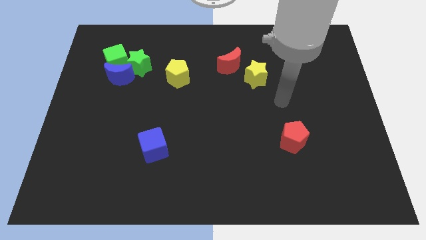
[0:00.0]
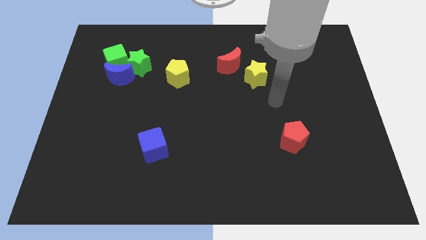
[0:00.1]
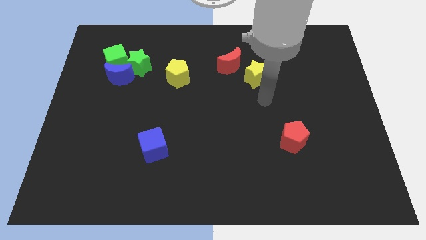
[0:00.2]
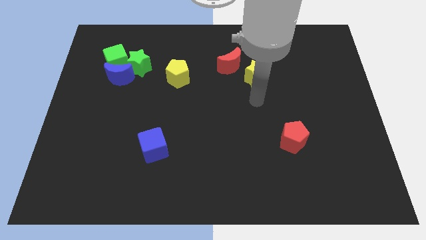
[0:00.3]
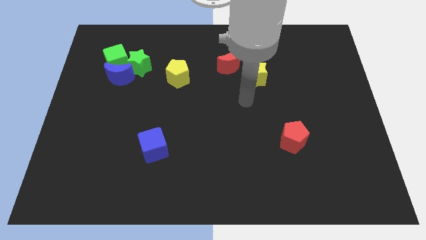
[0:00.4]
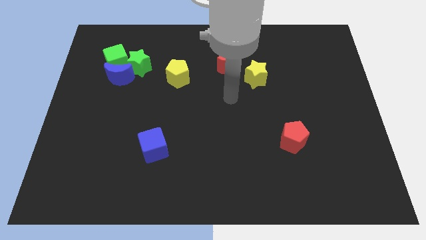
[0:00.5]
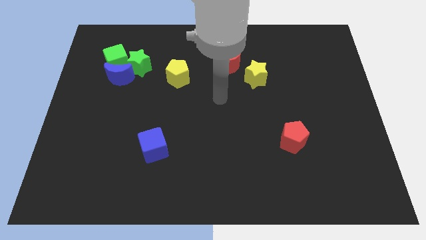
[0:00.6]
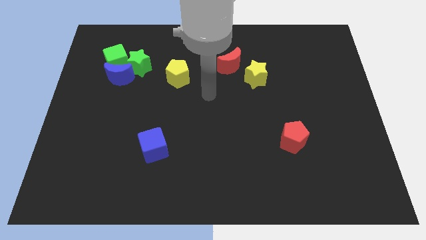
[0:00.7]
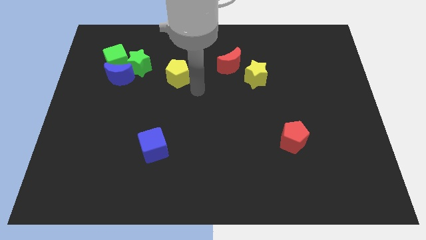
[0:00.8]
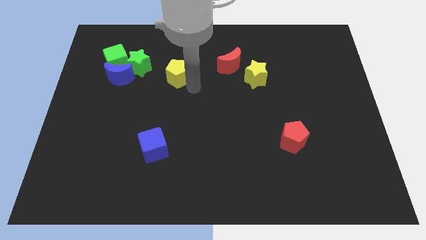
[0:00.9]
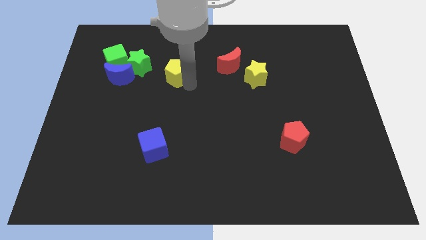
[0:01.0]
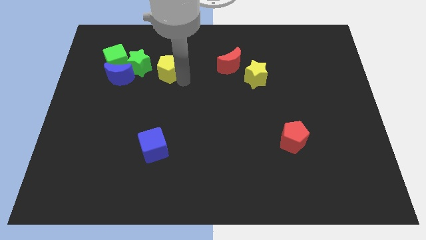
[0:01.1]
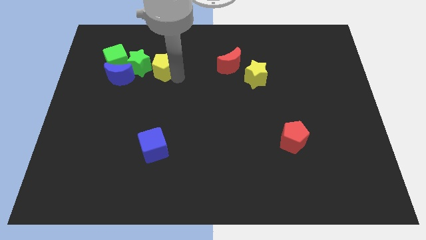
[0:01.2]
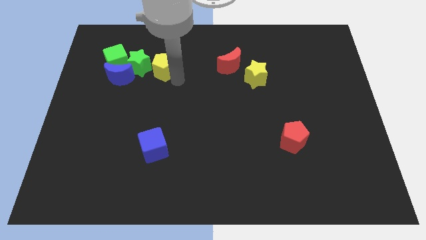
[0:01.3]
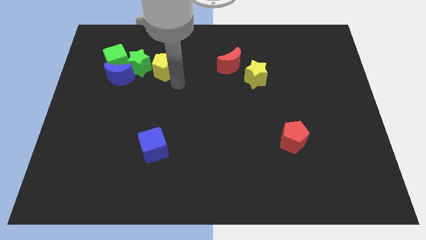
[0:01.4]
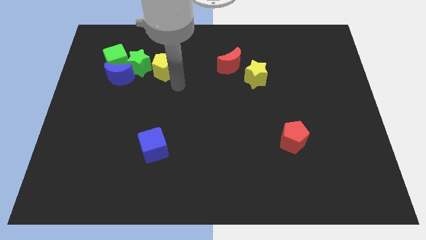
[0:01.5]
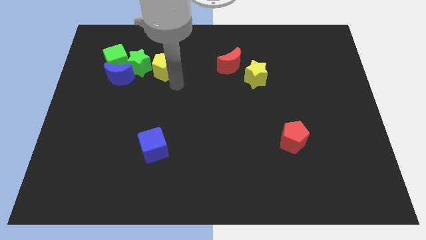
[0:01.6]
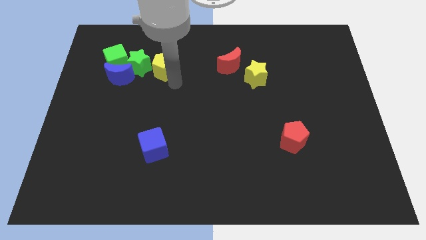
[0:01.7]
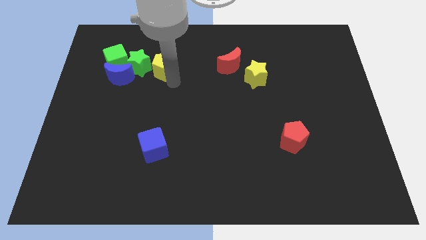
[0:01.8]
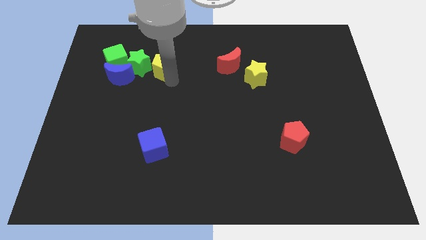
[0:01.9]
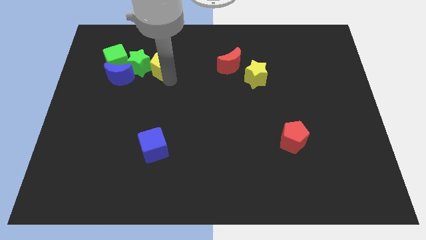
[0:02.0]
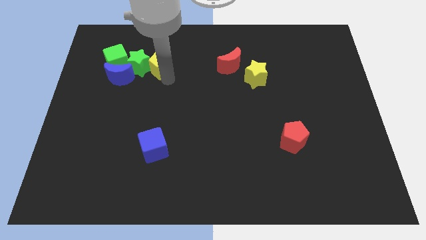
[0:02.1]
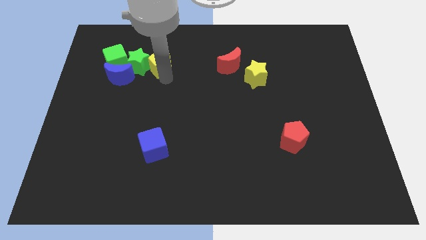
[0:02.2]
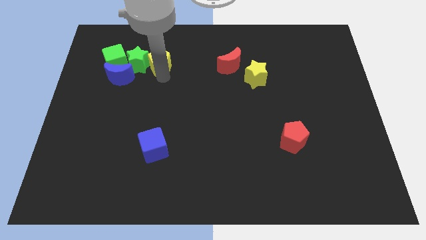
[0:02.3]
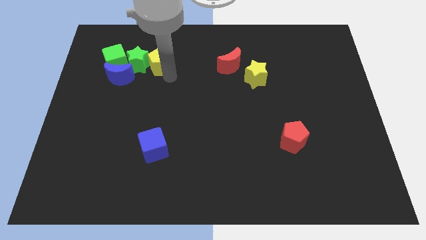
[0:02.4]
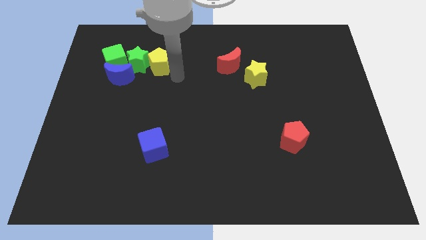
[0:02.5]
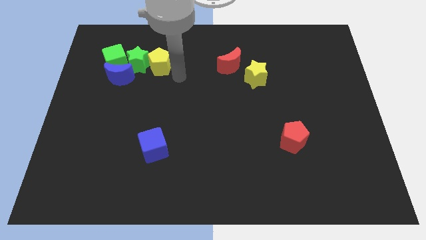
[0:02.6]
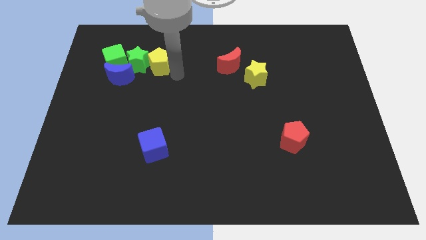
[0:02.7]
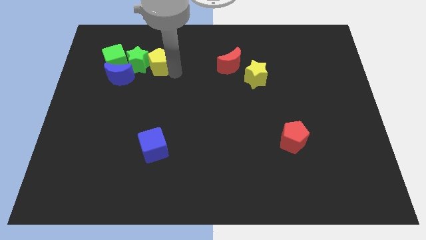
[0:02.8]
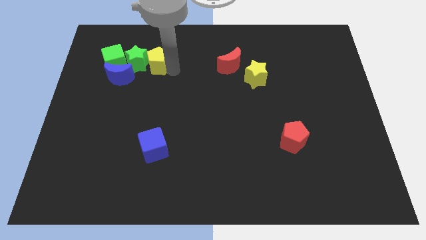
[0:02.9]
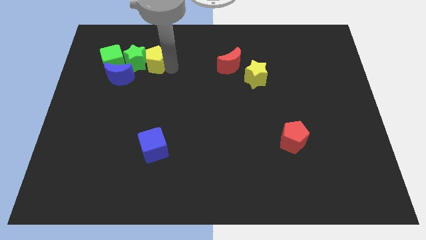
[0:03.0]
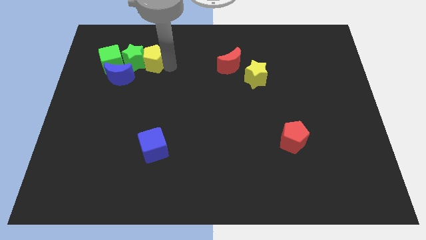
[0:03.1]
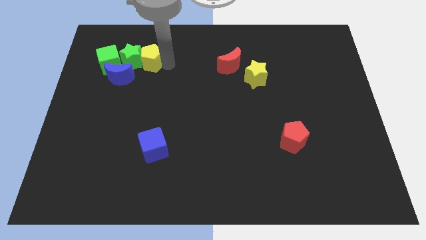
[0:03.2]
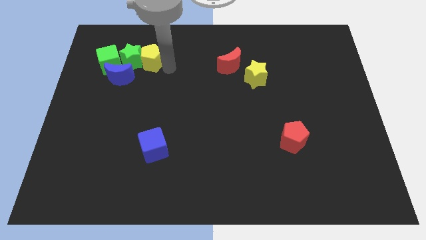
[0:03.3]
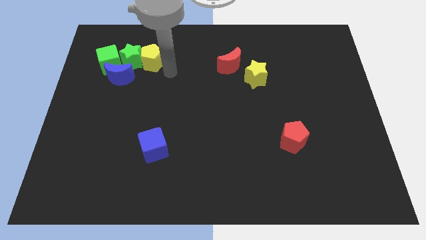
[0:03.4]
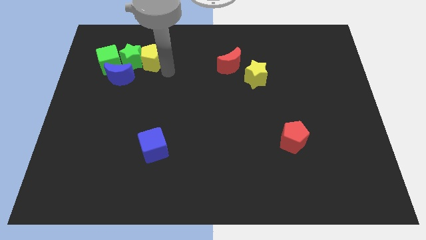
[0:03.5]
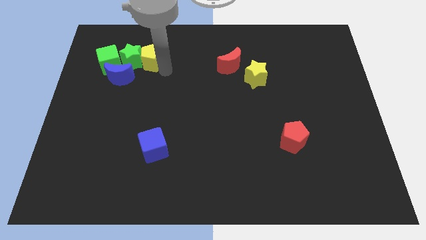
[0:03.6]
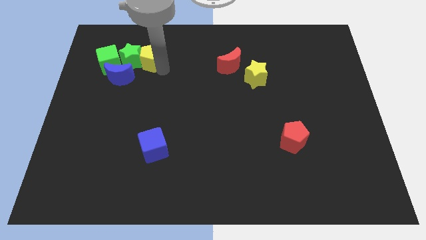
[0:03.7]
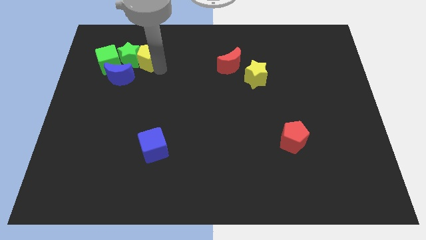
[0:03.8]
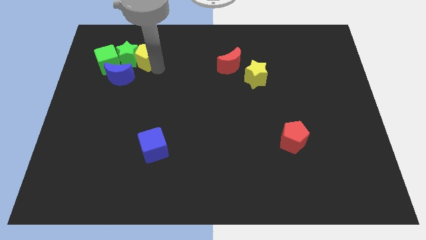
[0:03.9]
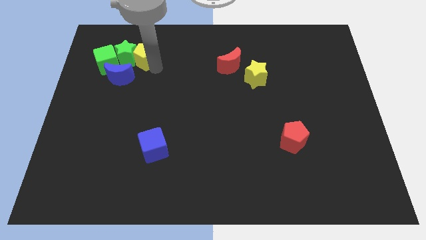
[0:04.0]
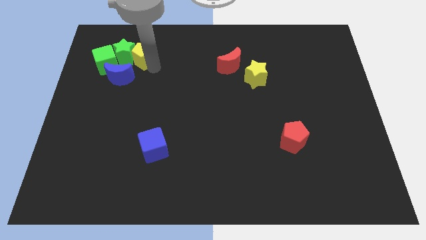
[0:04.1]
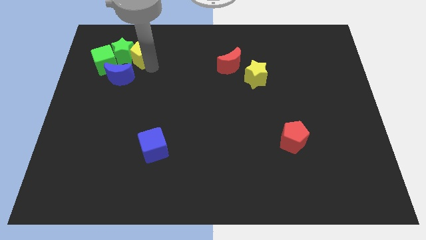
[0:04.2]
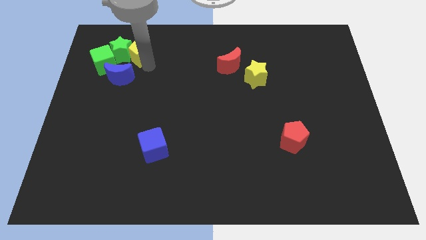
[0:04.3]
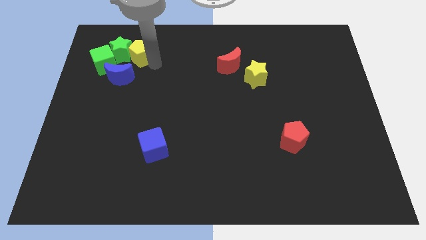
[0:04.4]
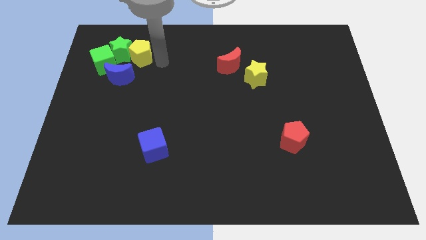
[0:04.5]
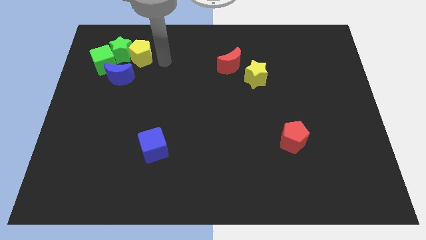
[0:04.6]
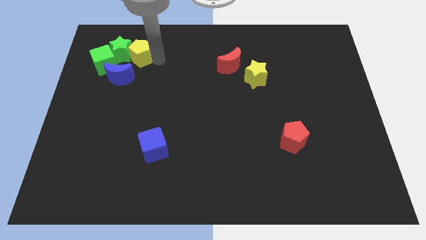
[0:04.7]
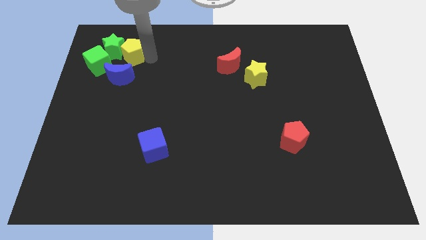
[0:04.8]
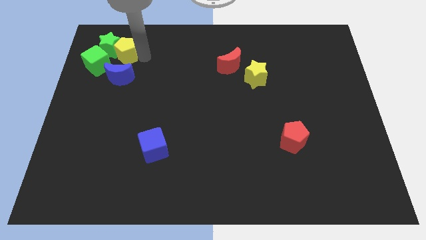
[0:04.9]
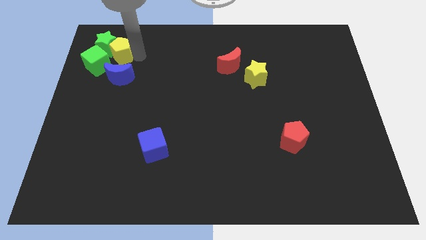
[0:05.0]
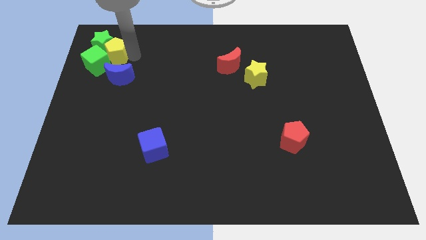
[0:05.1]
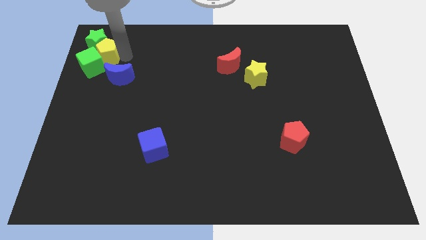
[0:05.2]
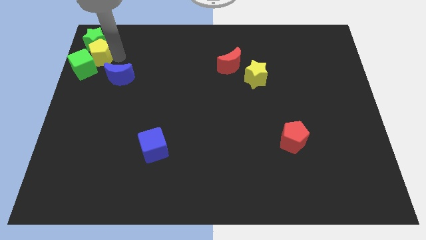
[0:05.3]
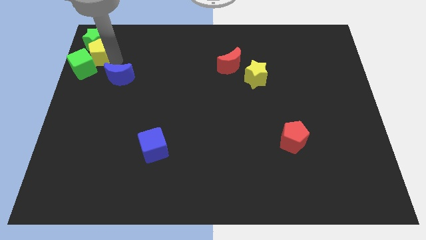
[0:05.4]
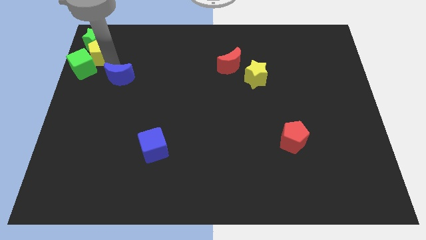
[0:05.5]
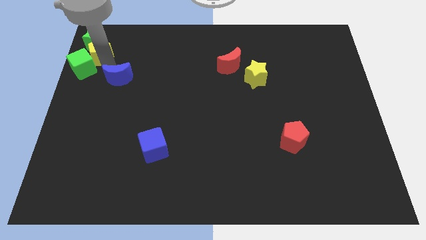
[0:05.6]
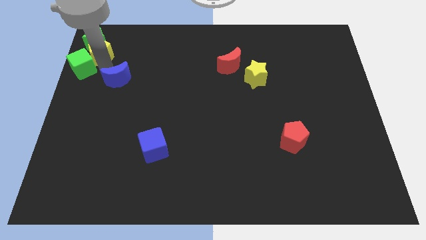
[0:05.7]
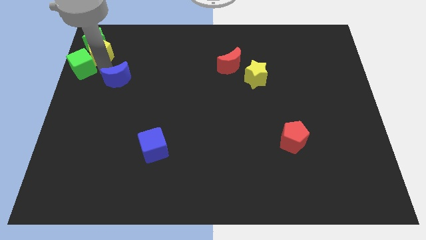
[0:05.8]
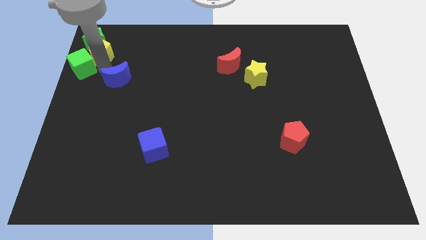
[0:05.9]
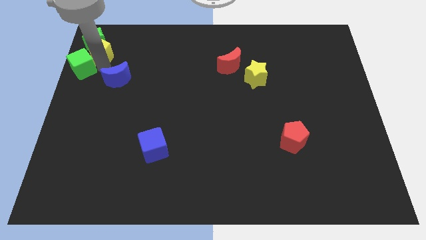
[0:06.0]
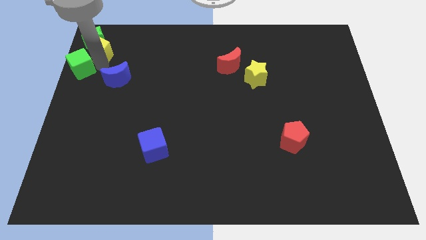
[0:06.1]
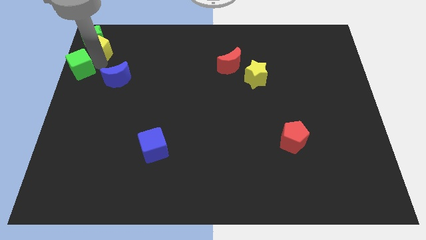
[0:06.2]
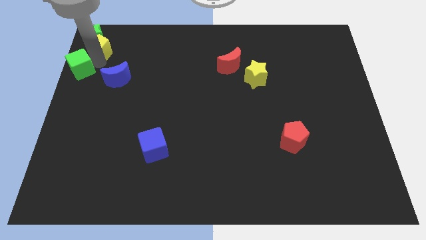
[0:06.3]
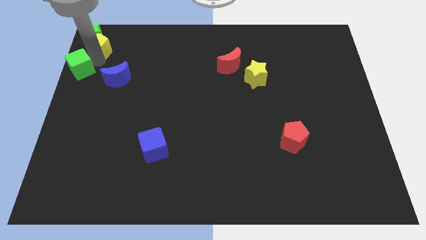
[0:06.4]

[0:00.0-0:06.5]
put the yellow pentagon to the upper left corner

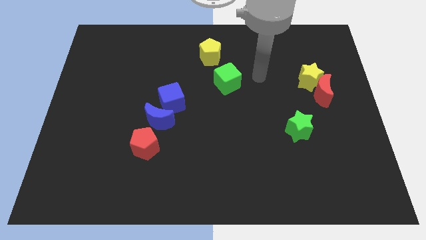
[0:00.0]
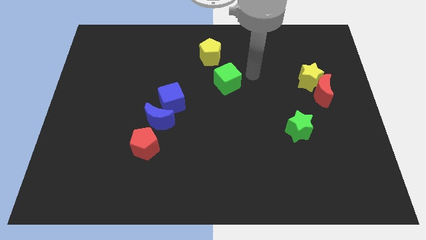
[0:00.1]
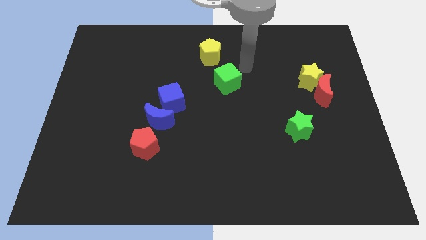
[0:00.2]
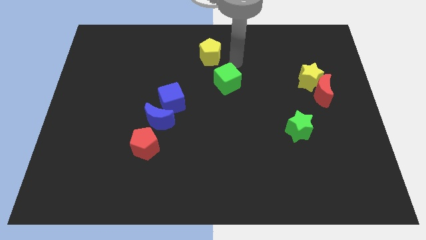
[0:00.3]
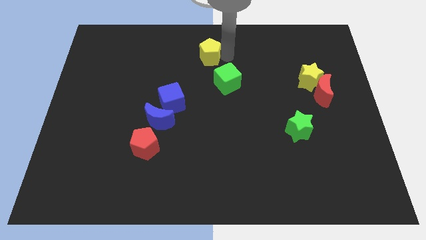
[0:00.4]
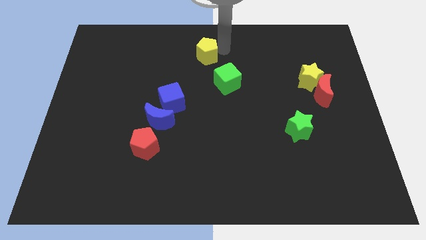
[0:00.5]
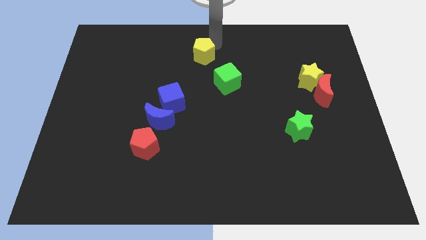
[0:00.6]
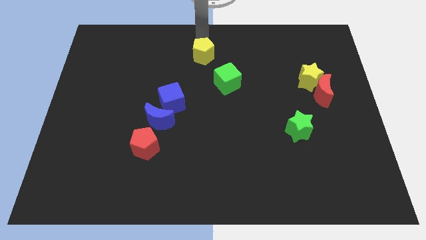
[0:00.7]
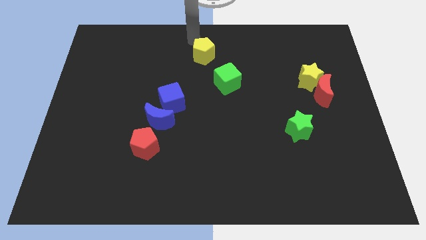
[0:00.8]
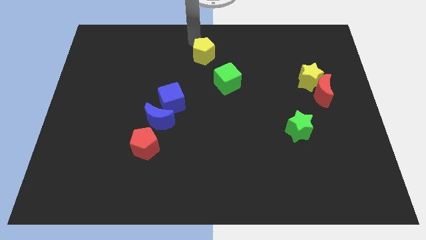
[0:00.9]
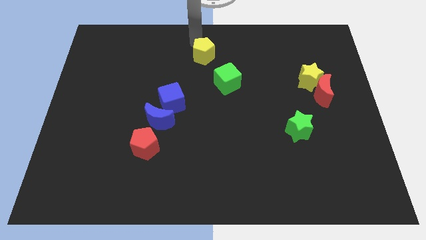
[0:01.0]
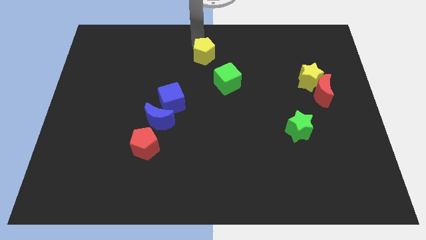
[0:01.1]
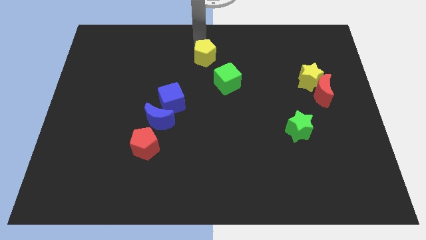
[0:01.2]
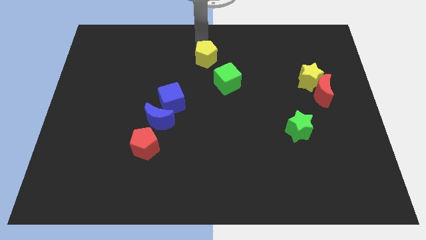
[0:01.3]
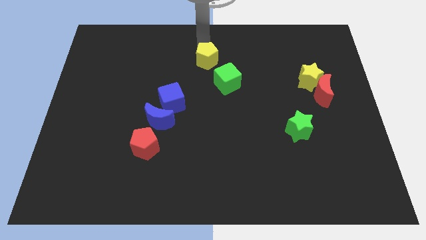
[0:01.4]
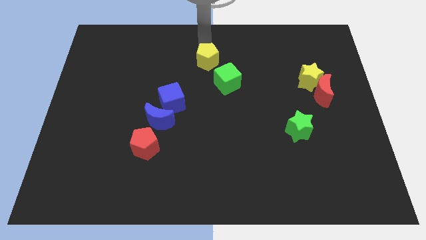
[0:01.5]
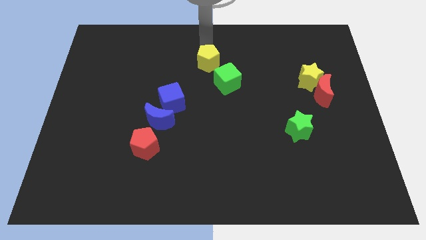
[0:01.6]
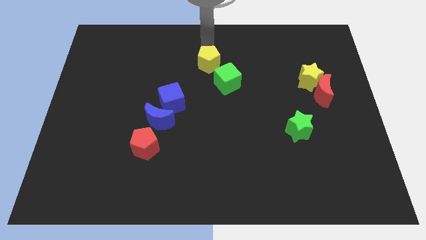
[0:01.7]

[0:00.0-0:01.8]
put the yellow pentagon to the middle of the board
